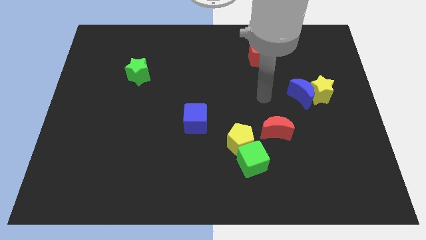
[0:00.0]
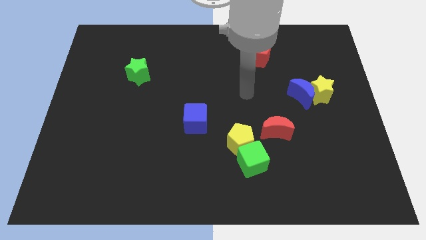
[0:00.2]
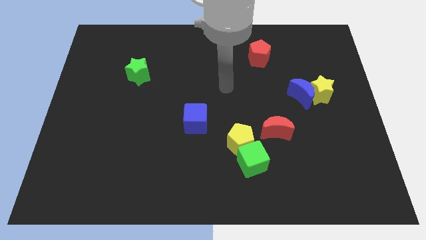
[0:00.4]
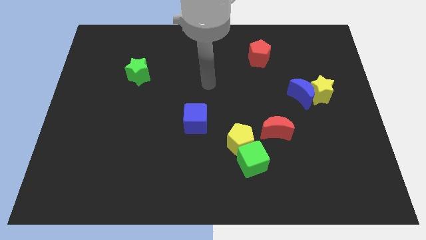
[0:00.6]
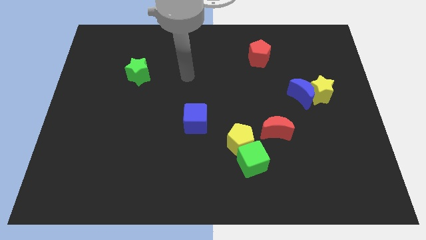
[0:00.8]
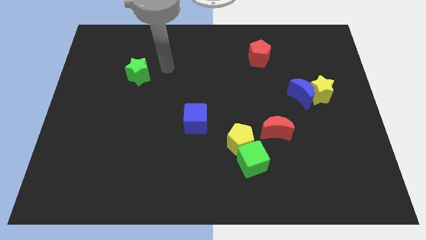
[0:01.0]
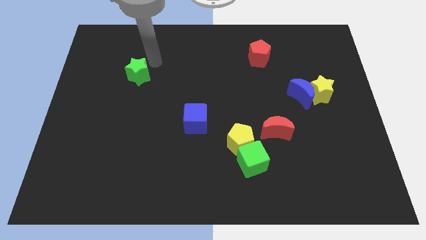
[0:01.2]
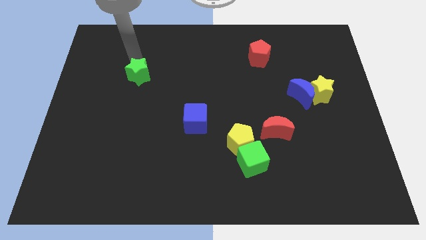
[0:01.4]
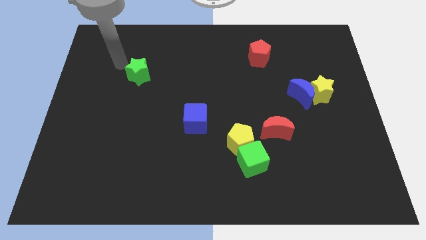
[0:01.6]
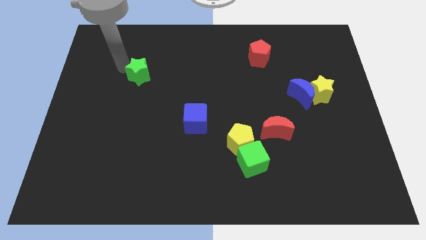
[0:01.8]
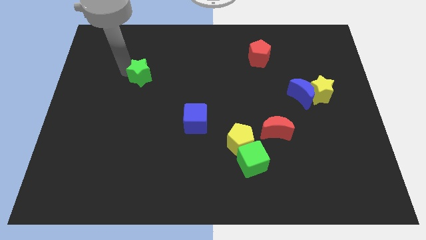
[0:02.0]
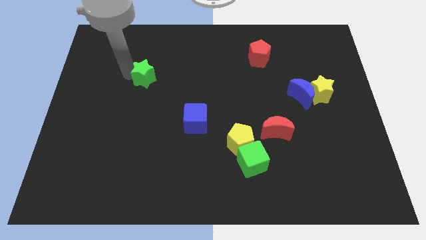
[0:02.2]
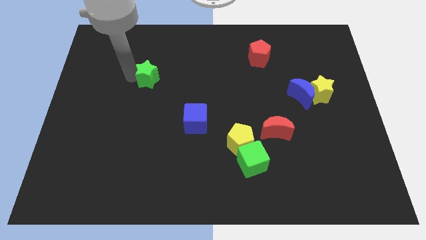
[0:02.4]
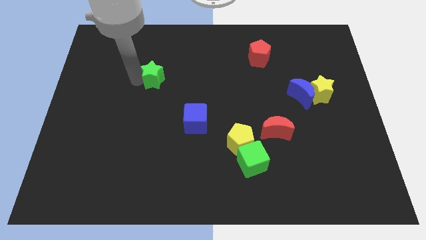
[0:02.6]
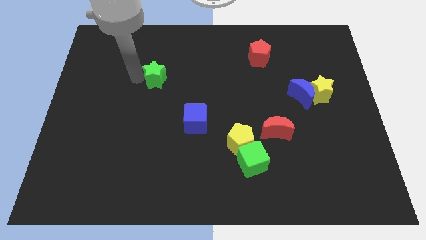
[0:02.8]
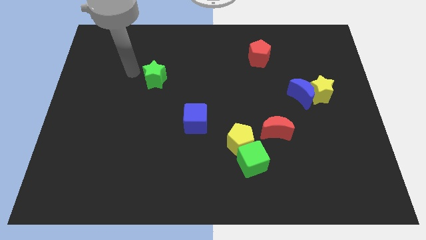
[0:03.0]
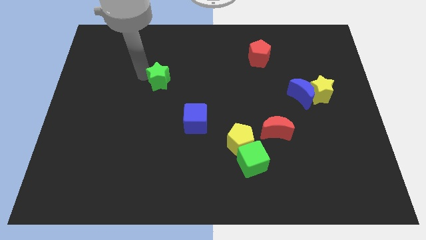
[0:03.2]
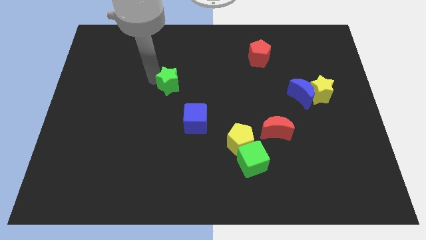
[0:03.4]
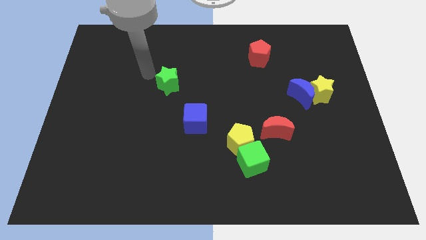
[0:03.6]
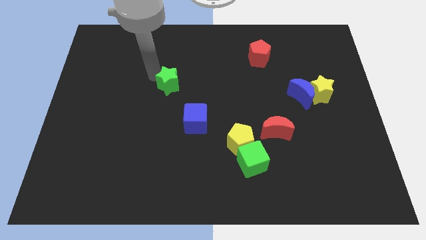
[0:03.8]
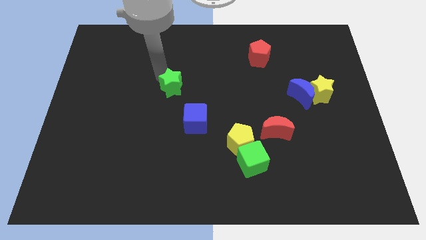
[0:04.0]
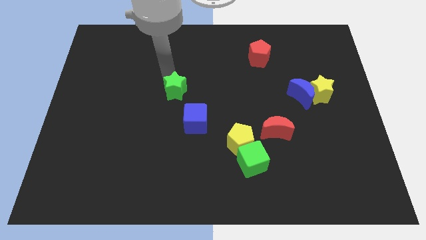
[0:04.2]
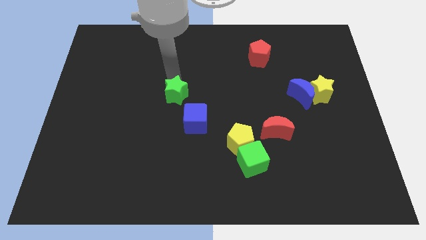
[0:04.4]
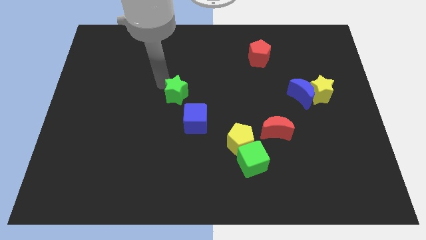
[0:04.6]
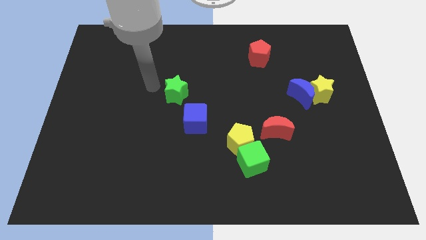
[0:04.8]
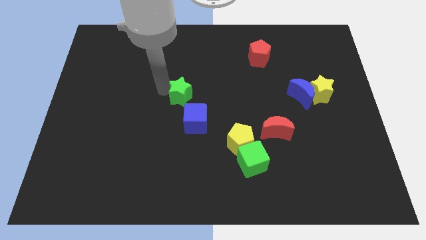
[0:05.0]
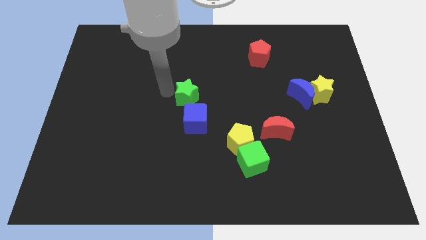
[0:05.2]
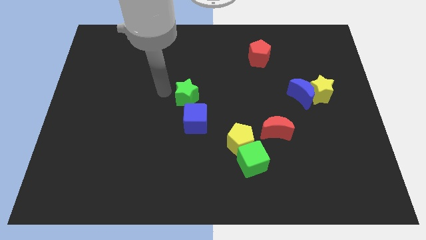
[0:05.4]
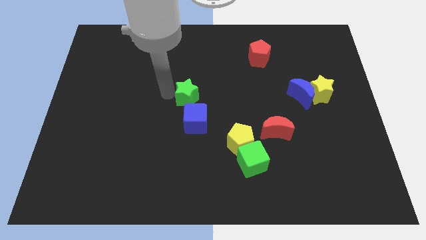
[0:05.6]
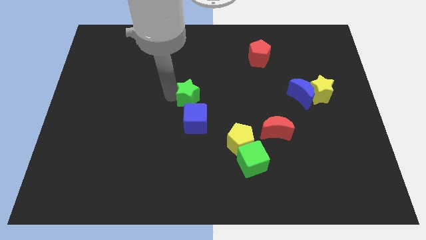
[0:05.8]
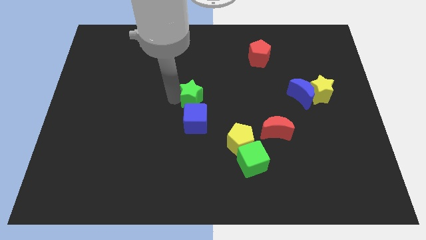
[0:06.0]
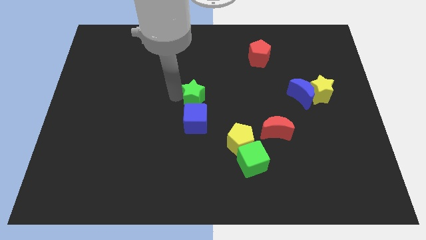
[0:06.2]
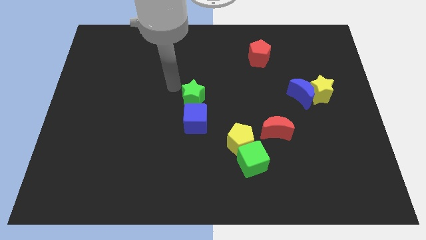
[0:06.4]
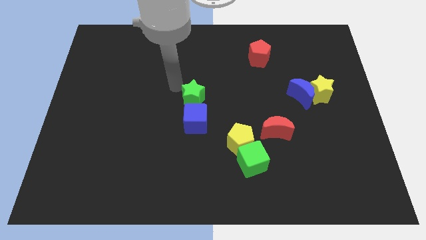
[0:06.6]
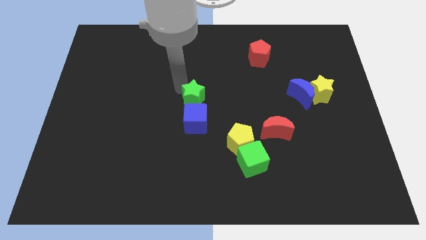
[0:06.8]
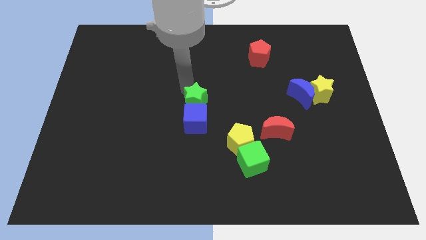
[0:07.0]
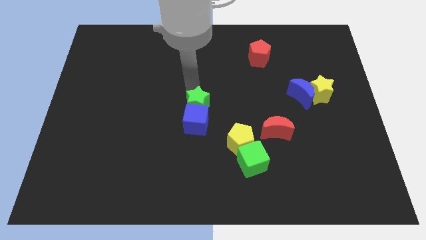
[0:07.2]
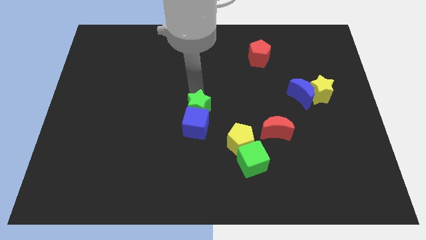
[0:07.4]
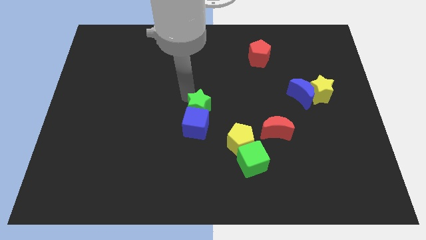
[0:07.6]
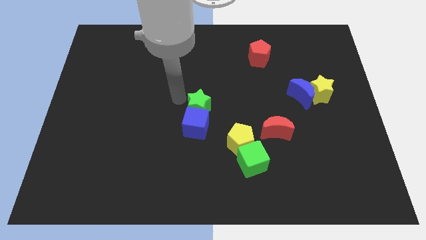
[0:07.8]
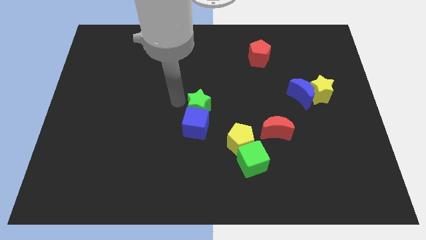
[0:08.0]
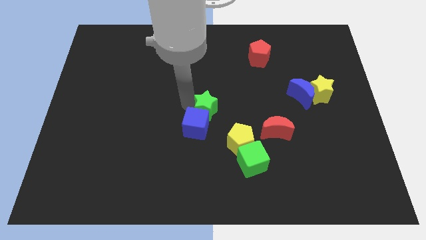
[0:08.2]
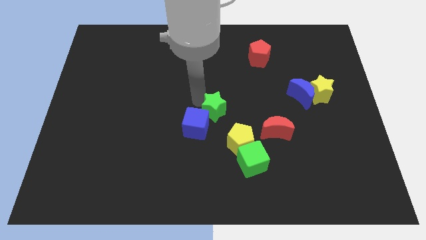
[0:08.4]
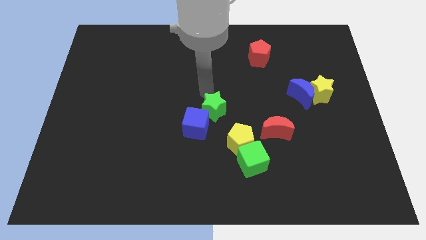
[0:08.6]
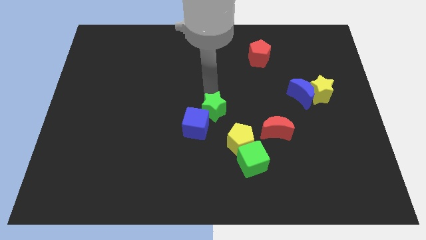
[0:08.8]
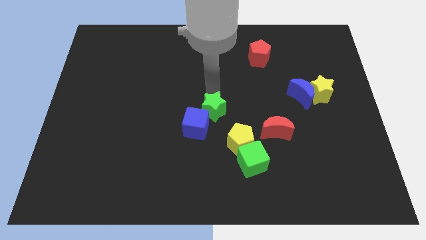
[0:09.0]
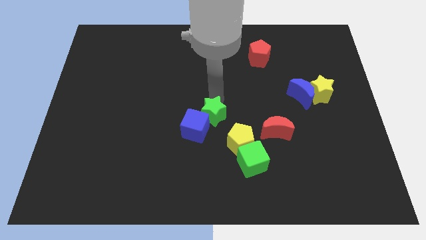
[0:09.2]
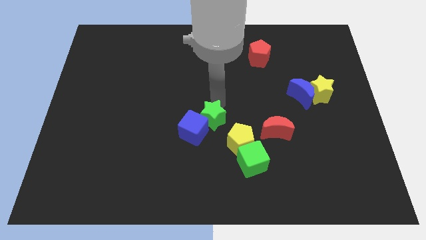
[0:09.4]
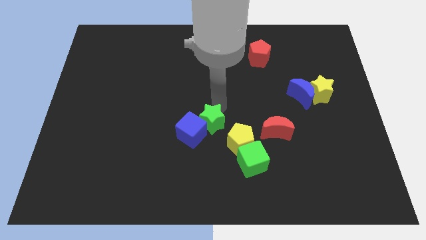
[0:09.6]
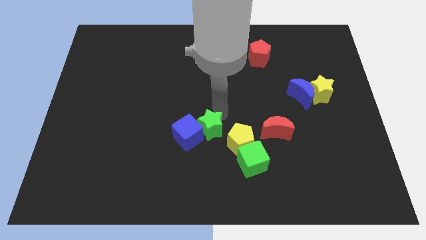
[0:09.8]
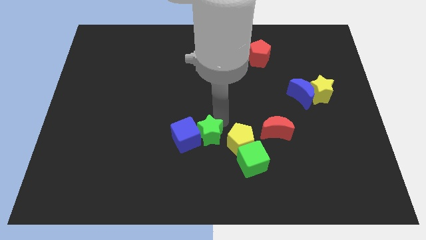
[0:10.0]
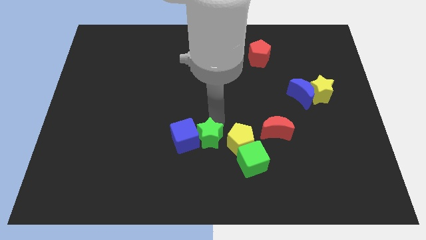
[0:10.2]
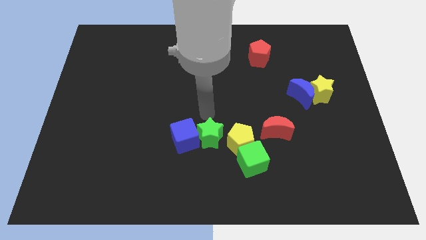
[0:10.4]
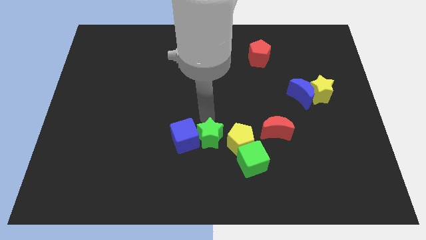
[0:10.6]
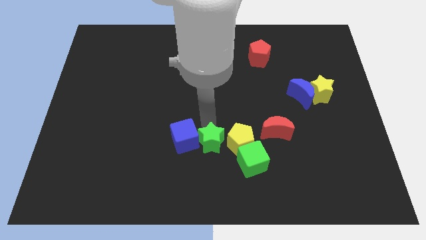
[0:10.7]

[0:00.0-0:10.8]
move the green star diagonally down and to the left of the yellow pentagon

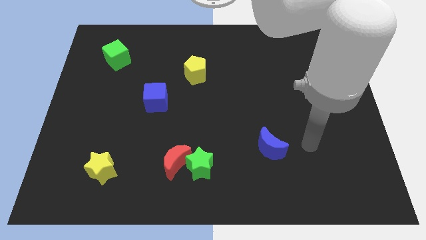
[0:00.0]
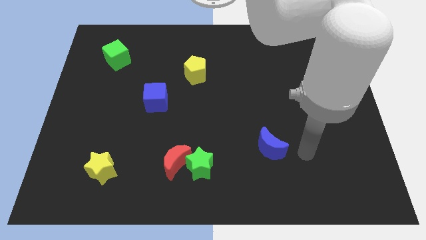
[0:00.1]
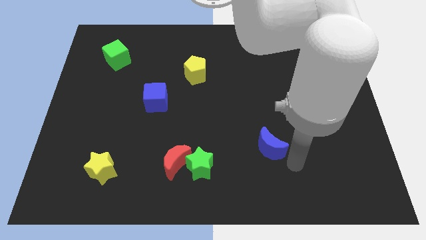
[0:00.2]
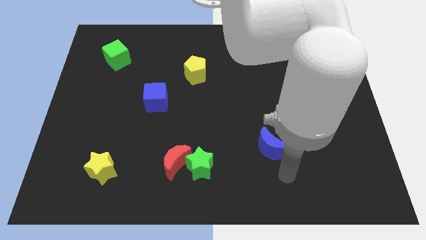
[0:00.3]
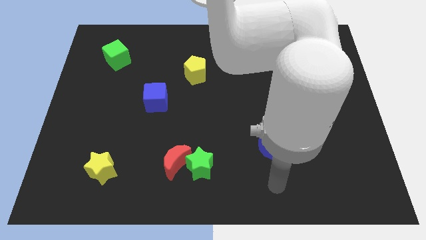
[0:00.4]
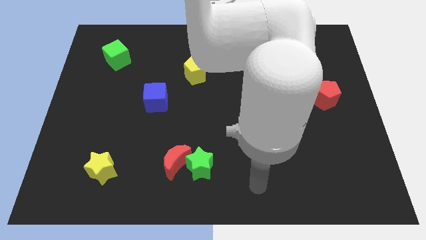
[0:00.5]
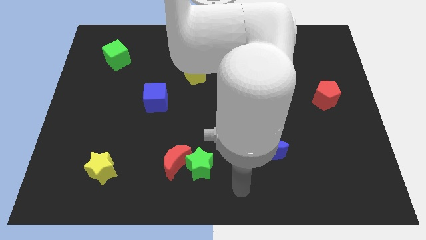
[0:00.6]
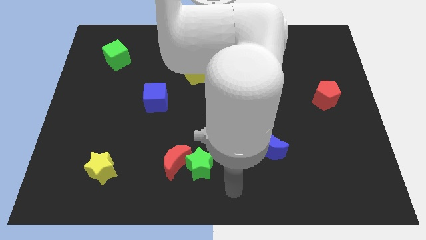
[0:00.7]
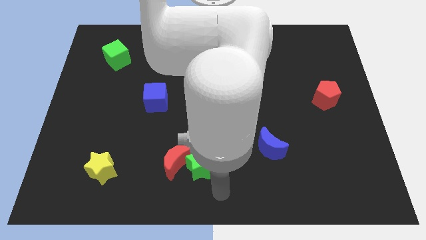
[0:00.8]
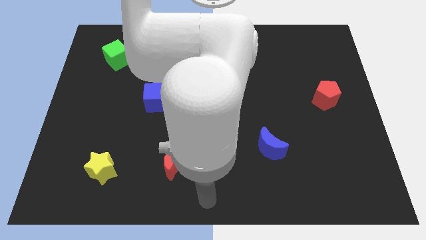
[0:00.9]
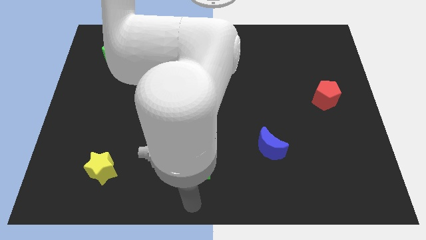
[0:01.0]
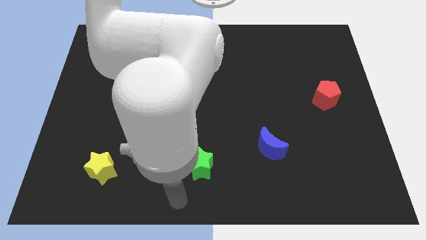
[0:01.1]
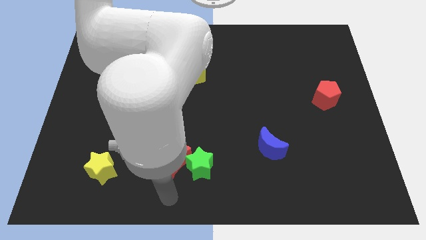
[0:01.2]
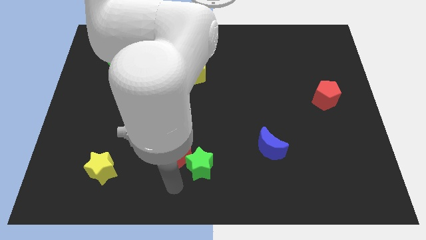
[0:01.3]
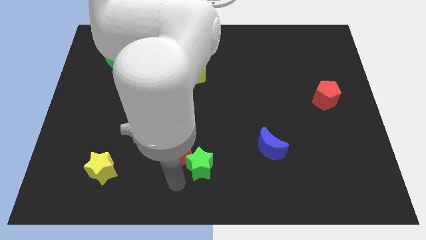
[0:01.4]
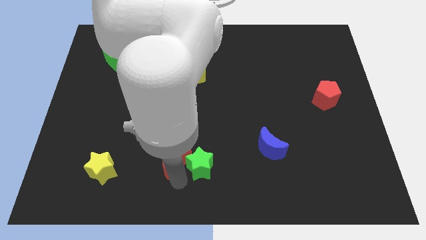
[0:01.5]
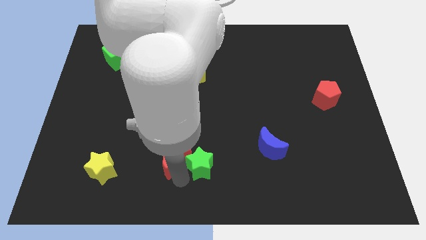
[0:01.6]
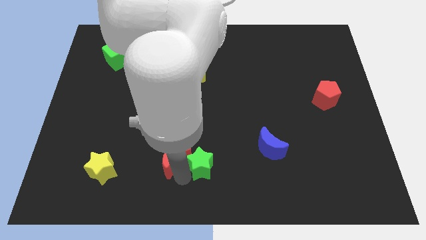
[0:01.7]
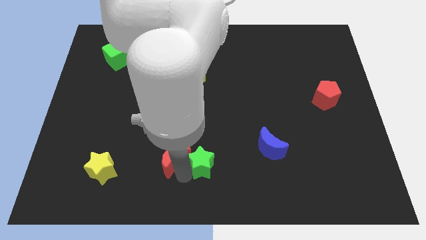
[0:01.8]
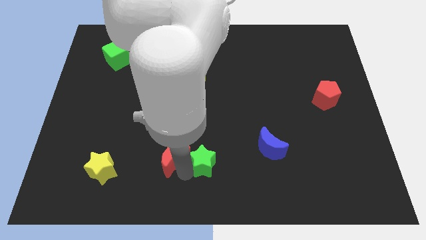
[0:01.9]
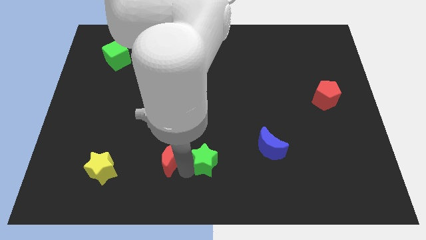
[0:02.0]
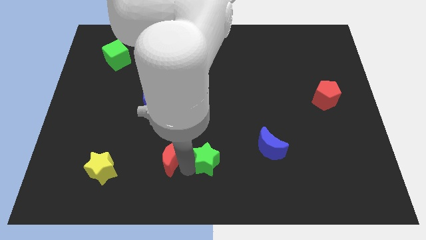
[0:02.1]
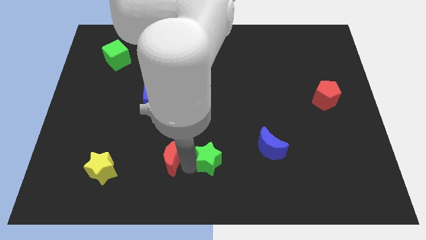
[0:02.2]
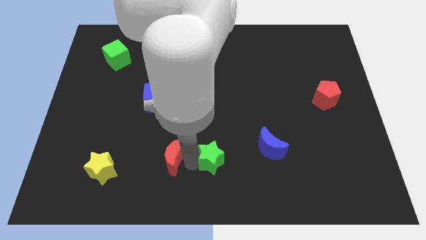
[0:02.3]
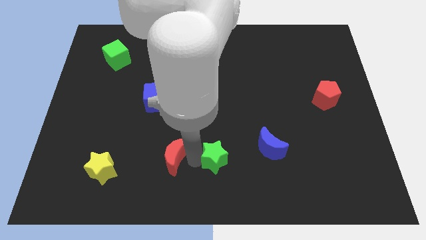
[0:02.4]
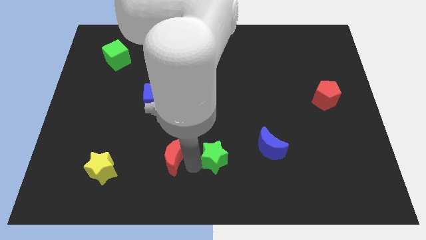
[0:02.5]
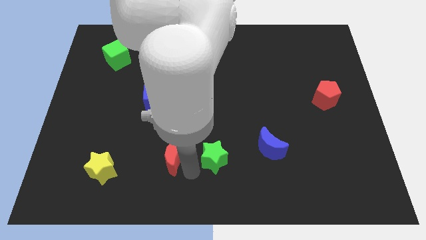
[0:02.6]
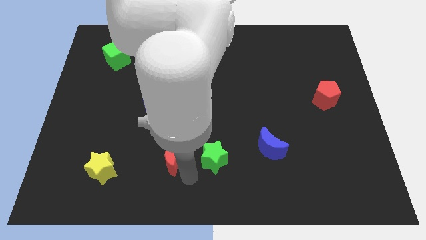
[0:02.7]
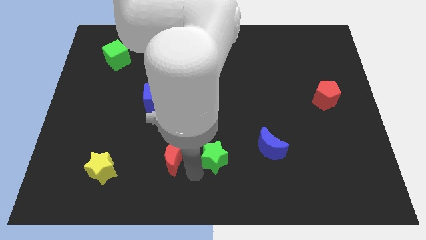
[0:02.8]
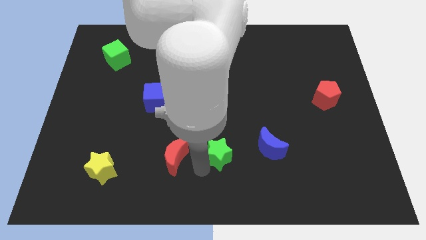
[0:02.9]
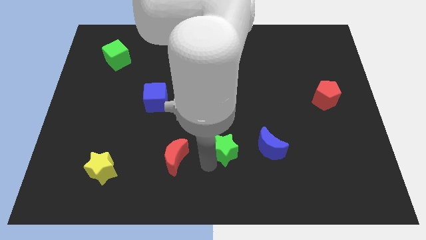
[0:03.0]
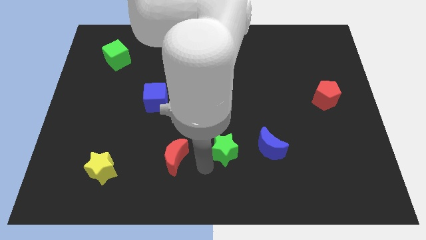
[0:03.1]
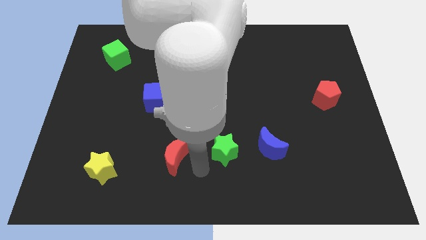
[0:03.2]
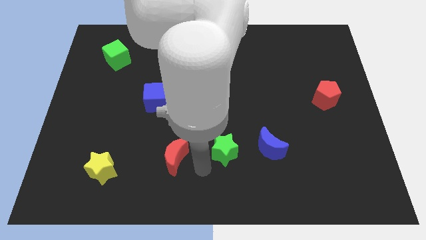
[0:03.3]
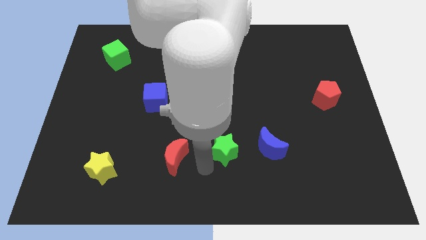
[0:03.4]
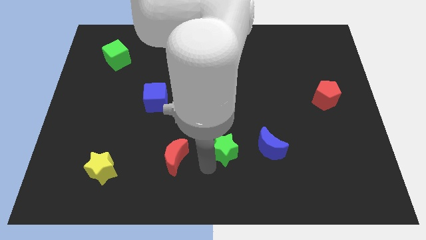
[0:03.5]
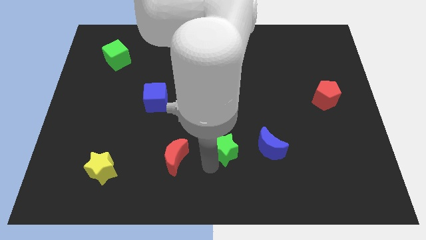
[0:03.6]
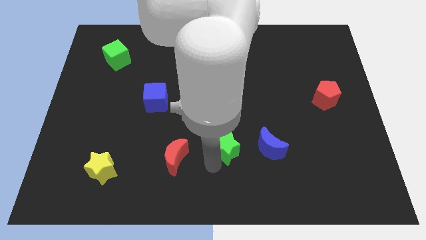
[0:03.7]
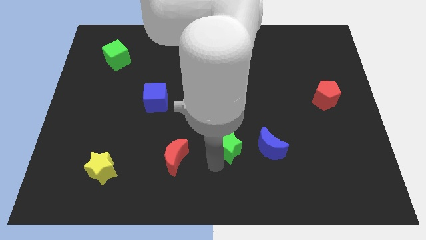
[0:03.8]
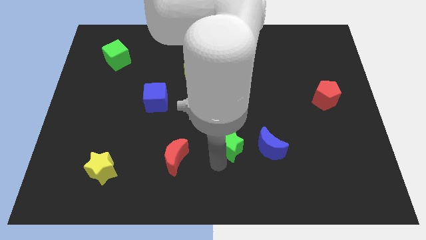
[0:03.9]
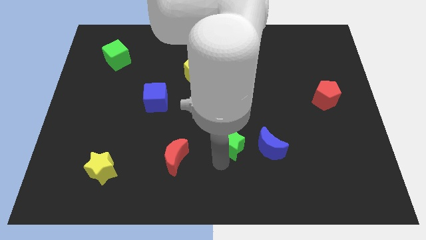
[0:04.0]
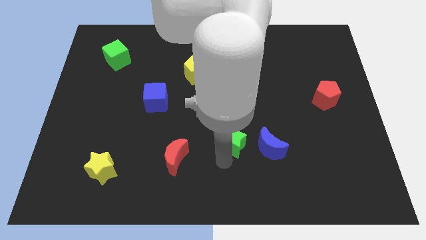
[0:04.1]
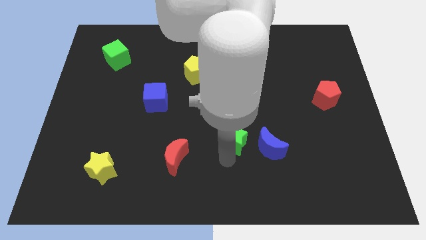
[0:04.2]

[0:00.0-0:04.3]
slide the green star to the top left side of the blue moon
